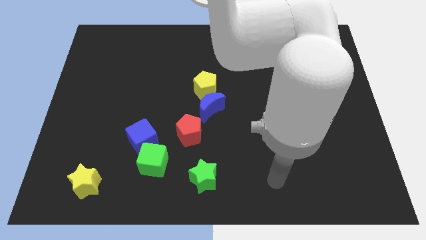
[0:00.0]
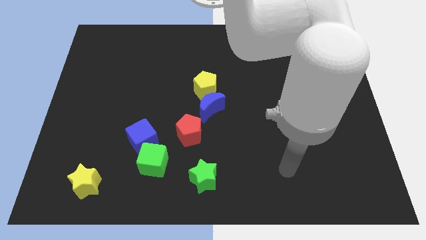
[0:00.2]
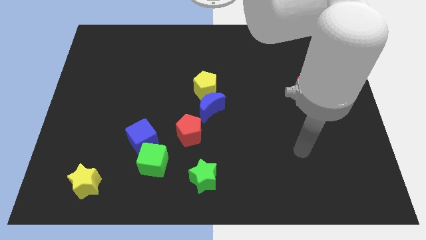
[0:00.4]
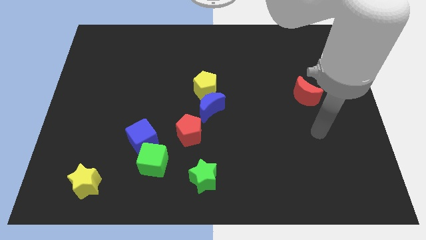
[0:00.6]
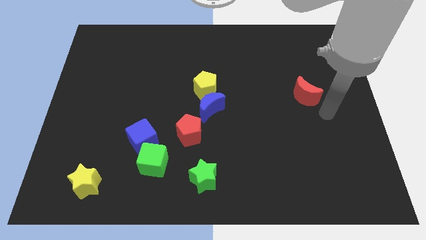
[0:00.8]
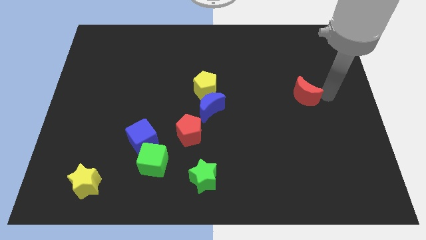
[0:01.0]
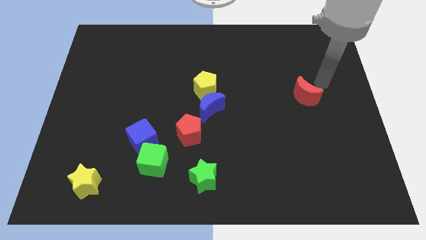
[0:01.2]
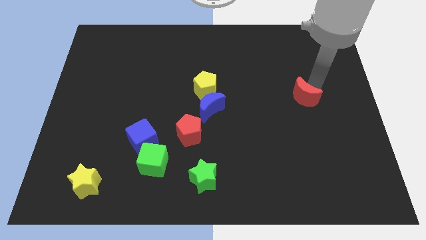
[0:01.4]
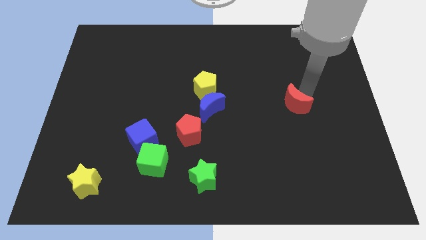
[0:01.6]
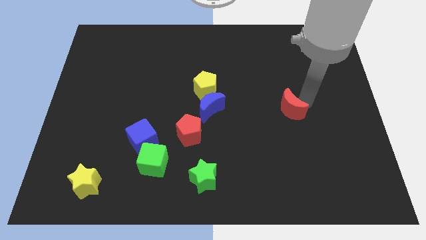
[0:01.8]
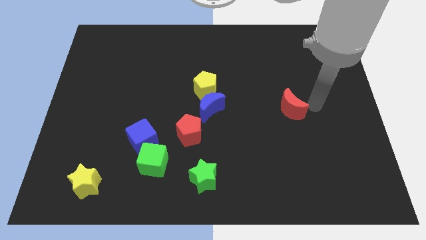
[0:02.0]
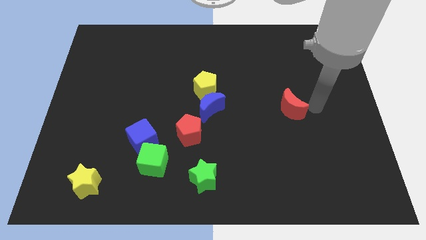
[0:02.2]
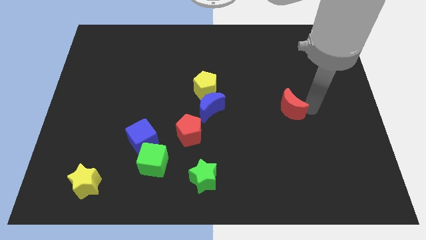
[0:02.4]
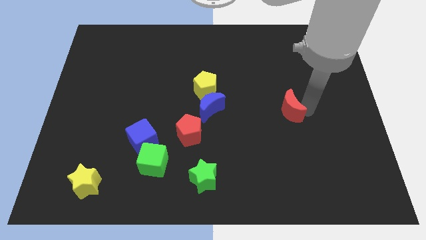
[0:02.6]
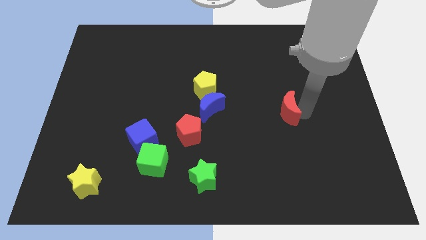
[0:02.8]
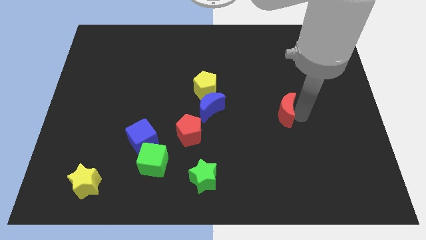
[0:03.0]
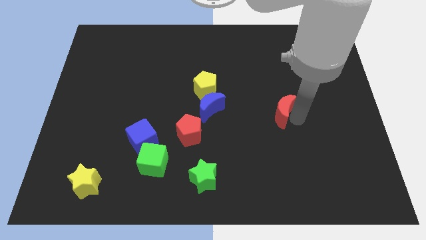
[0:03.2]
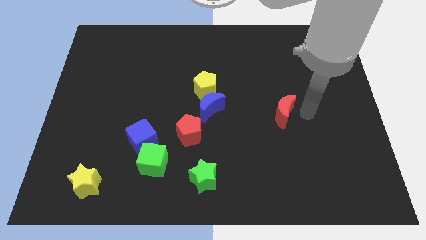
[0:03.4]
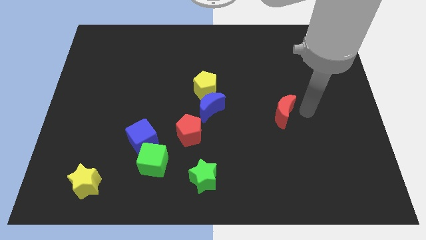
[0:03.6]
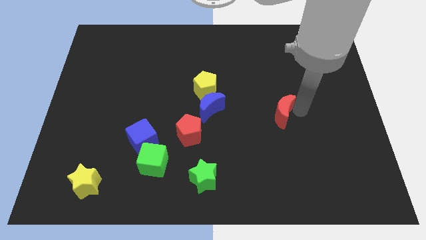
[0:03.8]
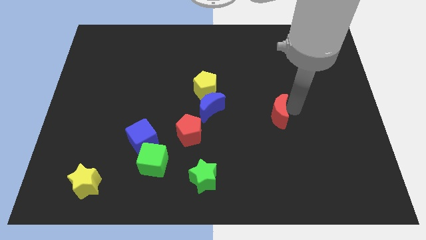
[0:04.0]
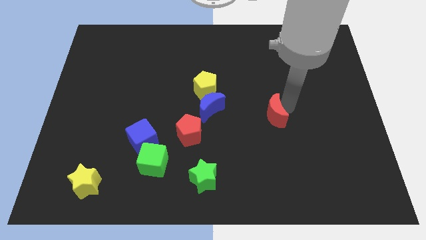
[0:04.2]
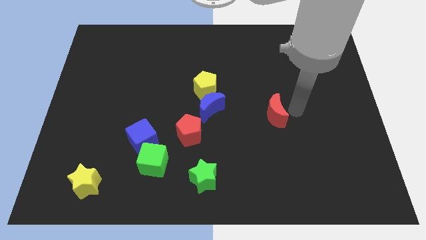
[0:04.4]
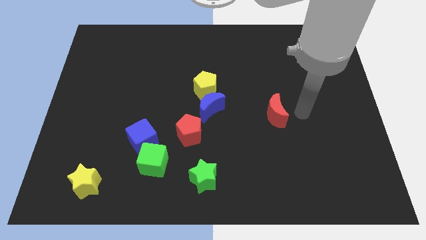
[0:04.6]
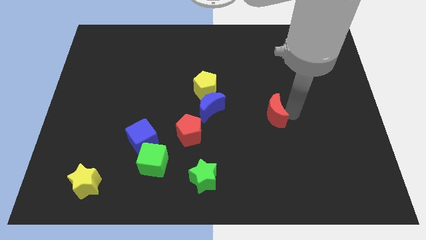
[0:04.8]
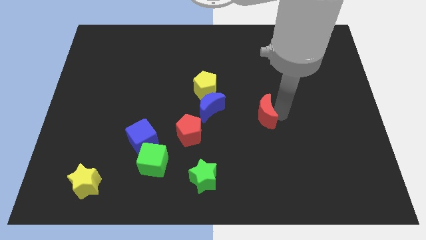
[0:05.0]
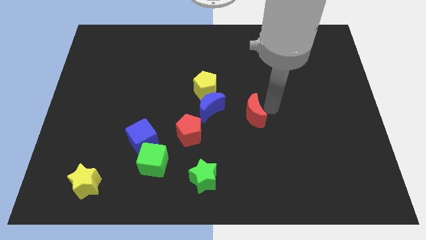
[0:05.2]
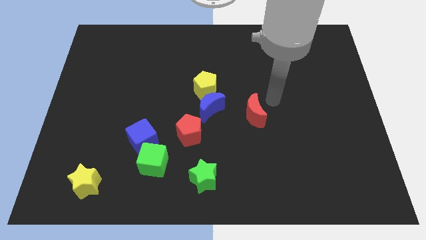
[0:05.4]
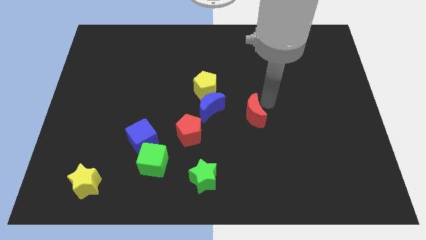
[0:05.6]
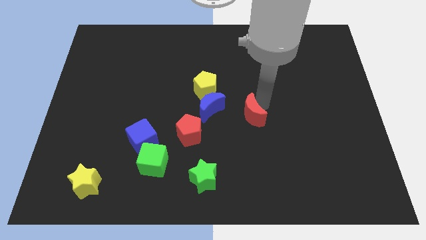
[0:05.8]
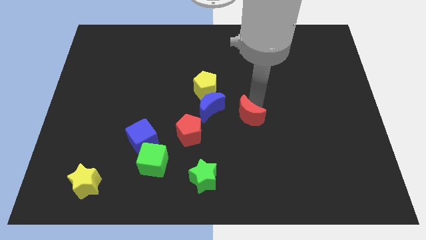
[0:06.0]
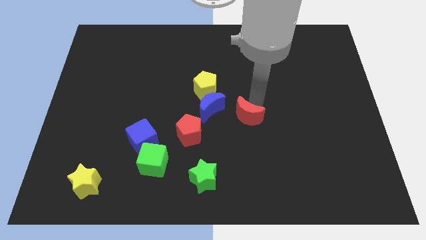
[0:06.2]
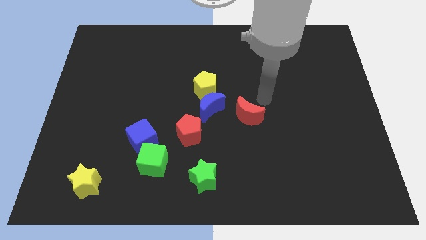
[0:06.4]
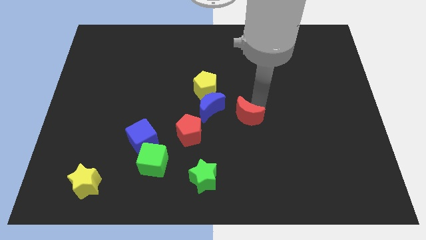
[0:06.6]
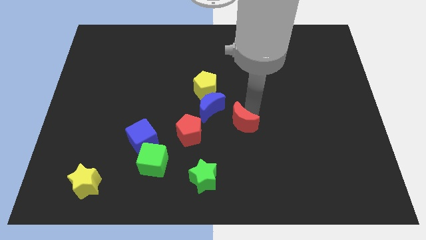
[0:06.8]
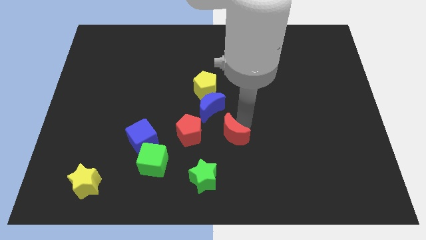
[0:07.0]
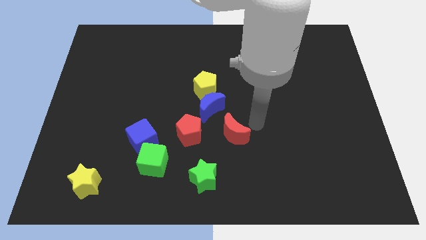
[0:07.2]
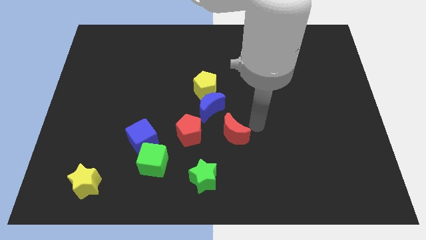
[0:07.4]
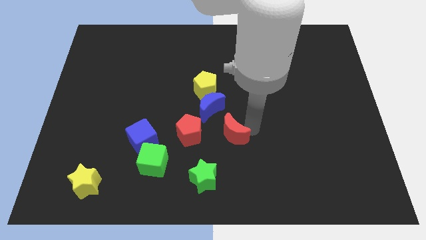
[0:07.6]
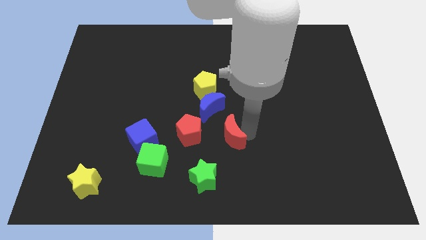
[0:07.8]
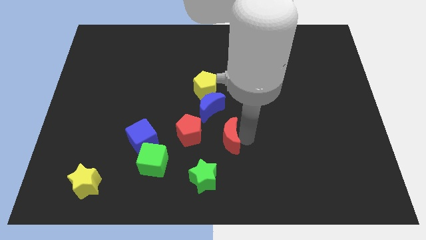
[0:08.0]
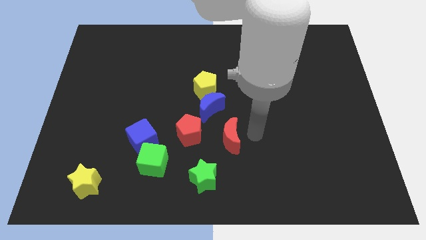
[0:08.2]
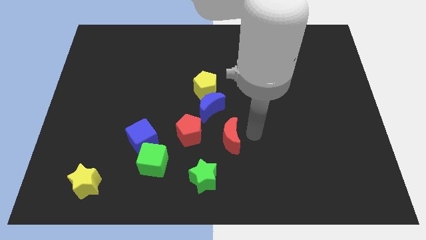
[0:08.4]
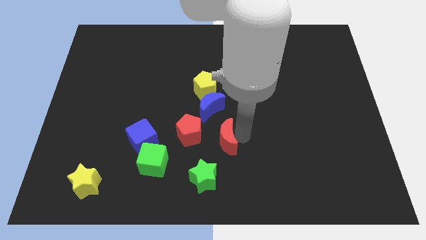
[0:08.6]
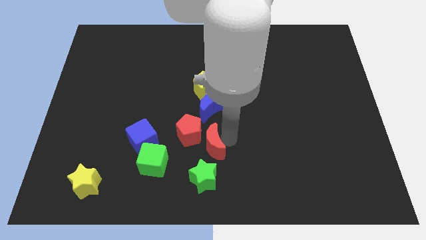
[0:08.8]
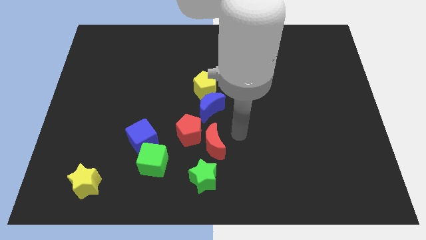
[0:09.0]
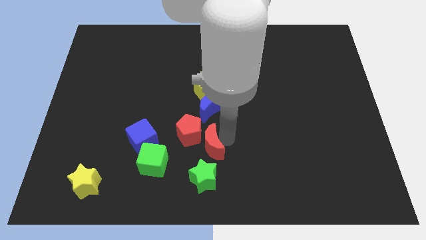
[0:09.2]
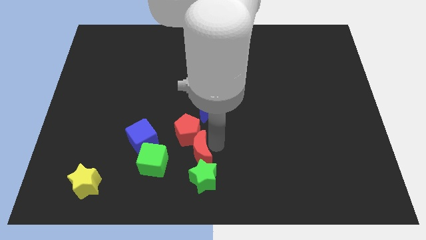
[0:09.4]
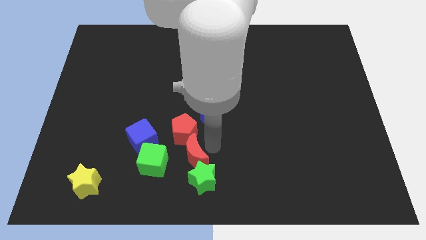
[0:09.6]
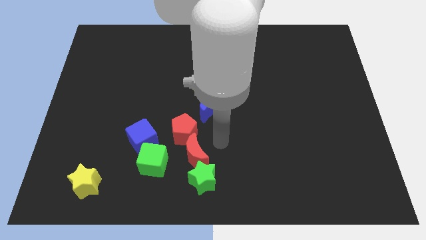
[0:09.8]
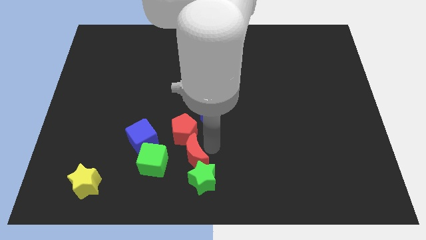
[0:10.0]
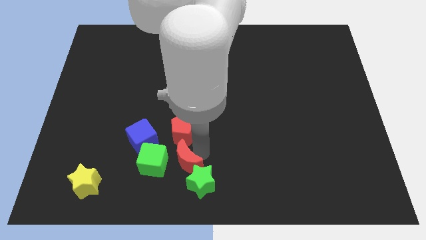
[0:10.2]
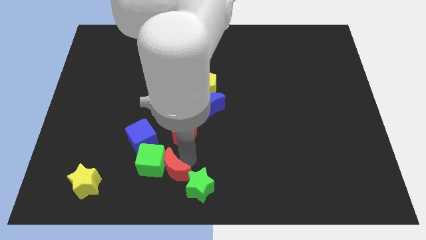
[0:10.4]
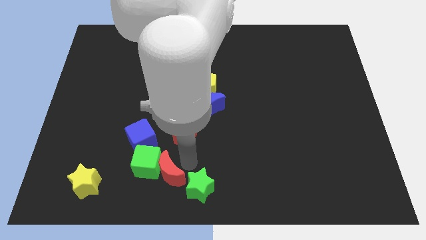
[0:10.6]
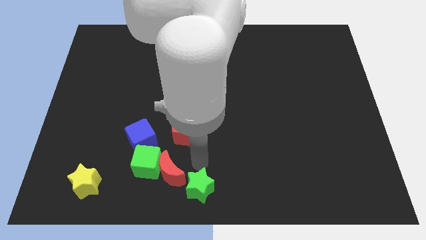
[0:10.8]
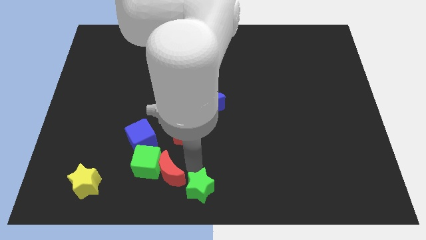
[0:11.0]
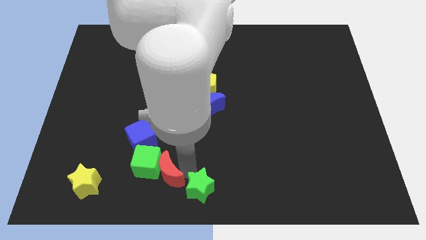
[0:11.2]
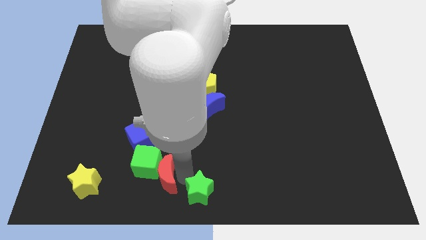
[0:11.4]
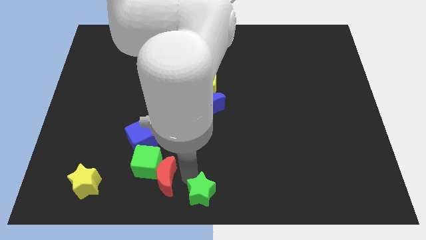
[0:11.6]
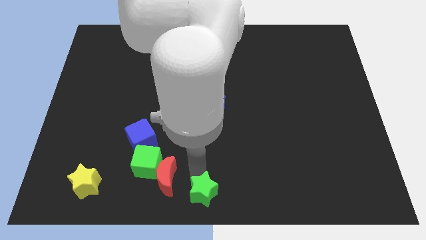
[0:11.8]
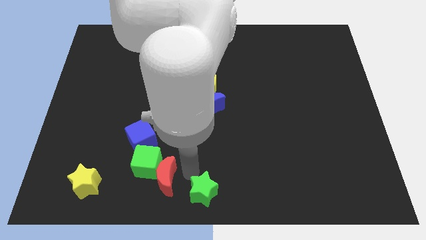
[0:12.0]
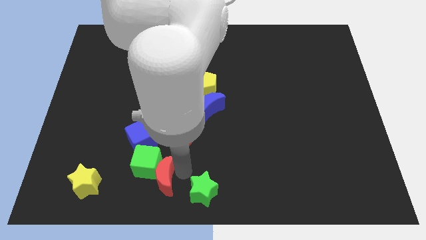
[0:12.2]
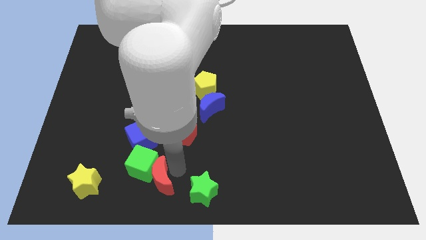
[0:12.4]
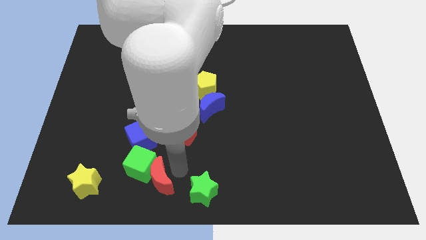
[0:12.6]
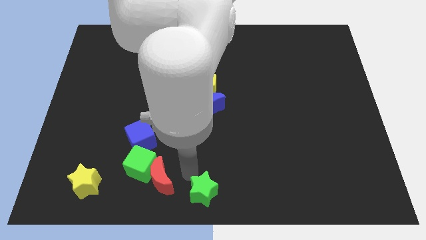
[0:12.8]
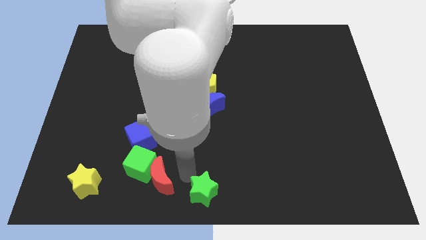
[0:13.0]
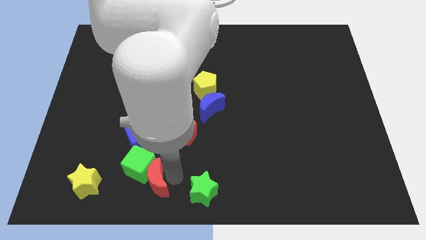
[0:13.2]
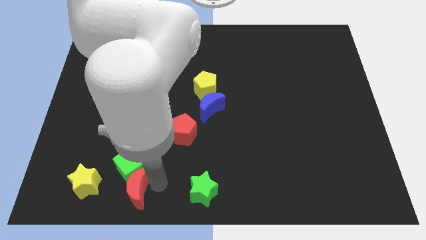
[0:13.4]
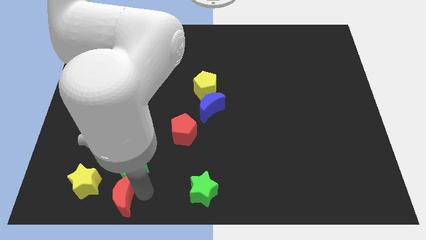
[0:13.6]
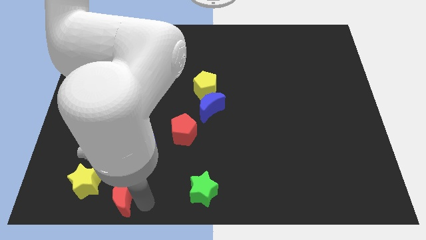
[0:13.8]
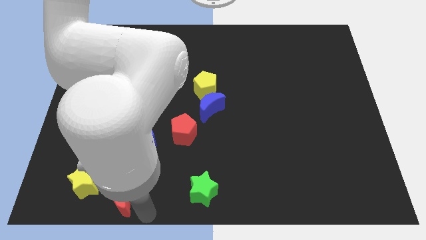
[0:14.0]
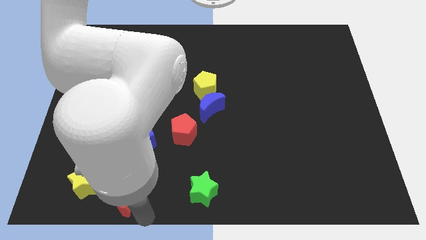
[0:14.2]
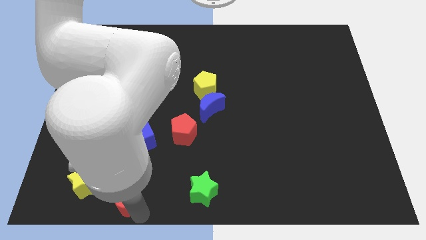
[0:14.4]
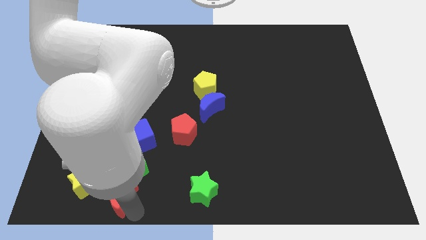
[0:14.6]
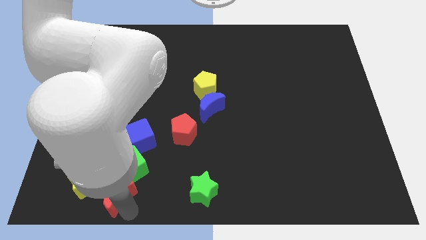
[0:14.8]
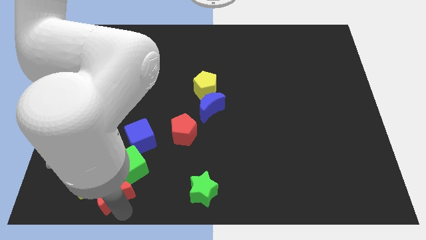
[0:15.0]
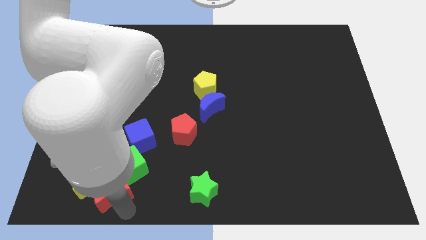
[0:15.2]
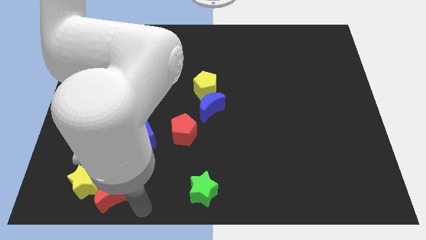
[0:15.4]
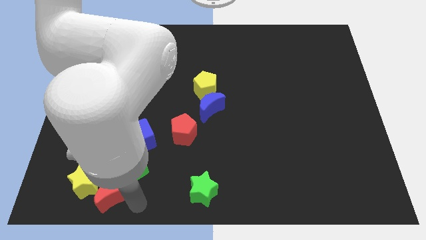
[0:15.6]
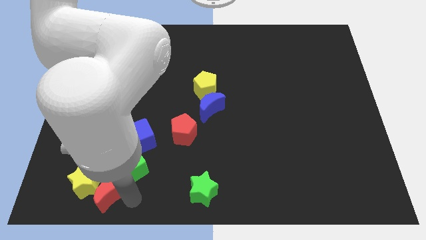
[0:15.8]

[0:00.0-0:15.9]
put the red moon to the yellow star

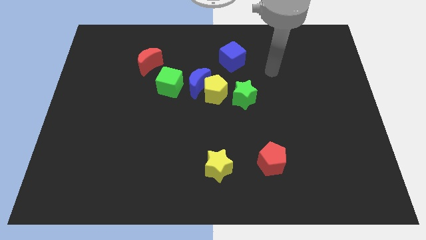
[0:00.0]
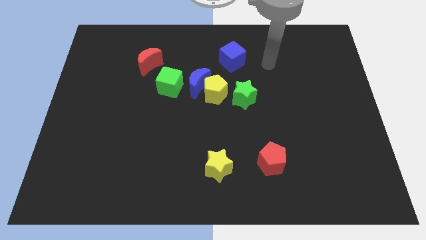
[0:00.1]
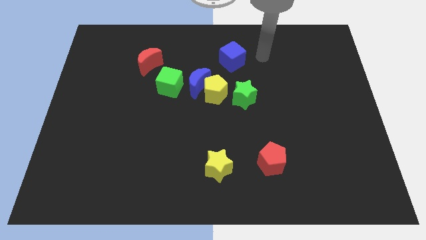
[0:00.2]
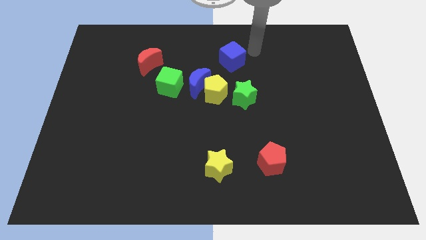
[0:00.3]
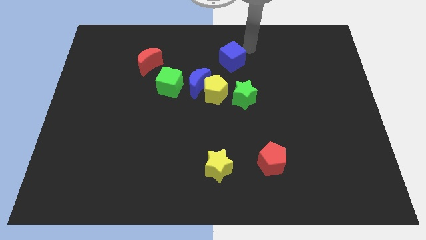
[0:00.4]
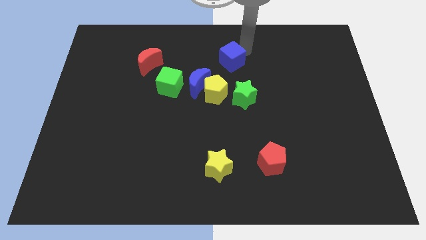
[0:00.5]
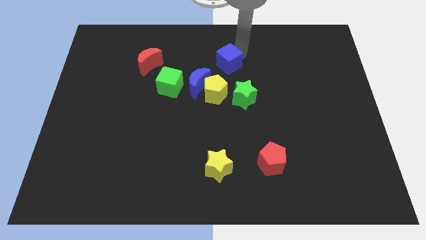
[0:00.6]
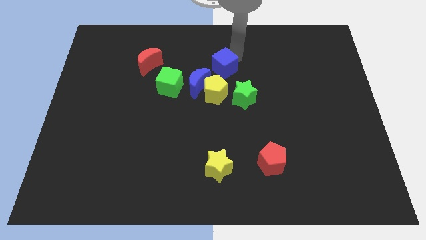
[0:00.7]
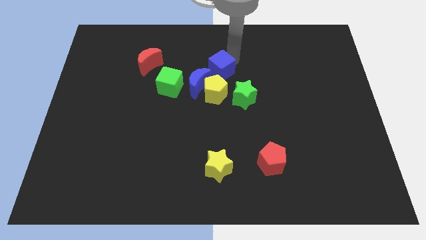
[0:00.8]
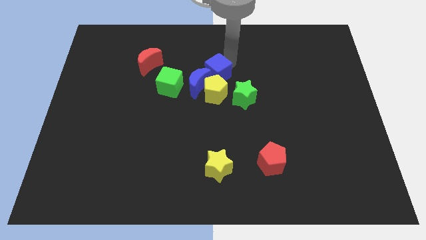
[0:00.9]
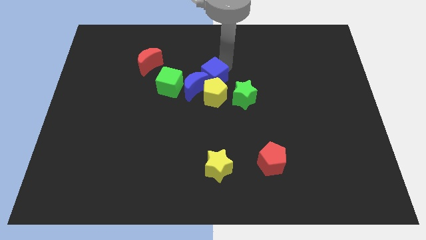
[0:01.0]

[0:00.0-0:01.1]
move the blue cube towards the blue moon
